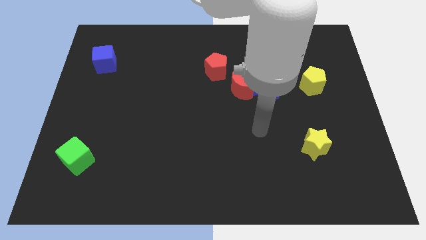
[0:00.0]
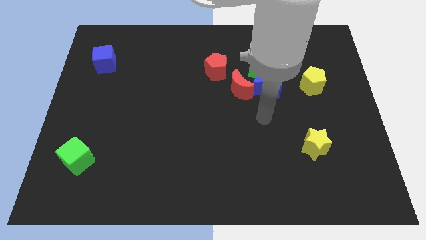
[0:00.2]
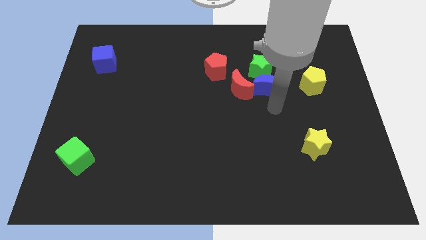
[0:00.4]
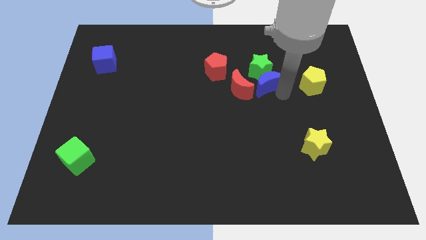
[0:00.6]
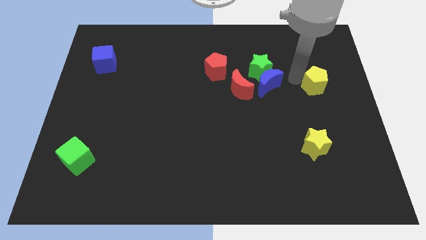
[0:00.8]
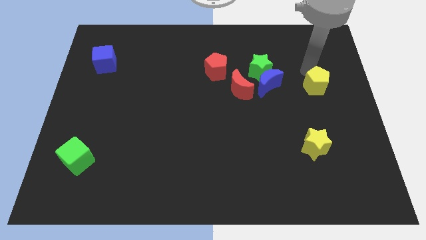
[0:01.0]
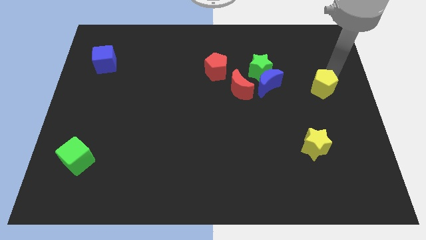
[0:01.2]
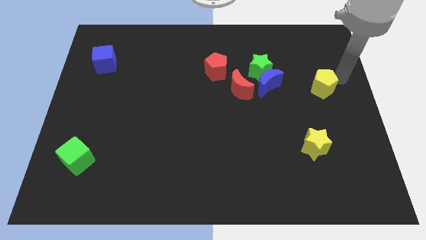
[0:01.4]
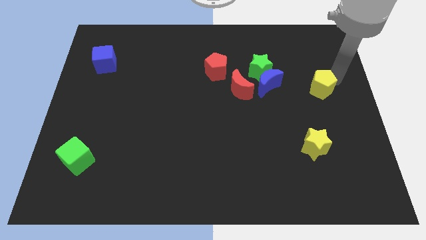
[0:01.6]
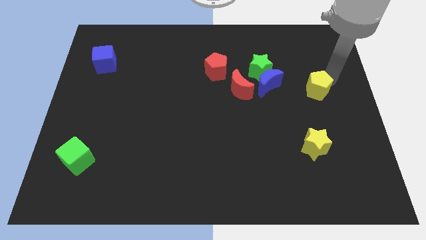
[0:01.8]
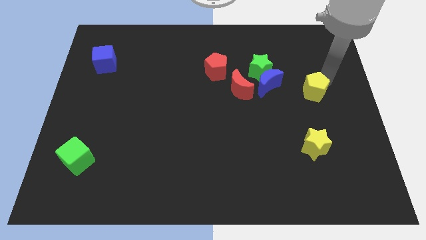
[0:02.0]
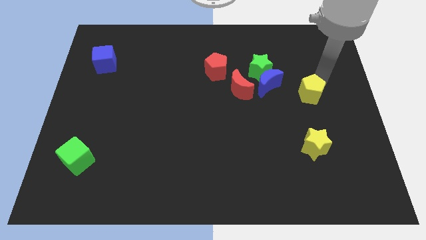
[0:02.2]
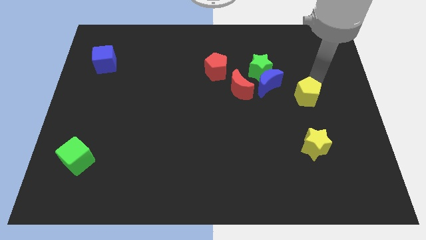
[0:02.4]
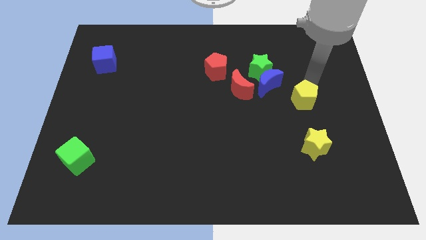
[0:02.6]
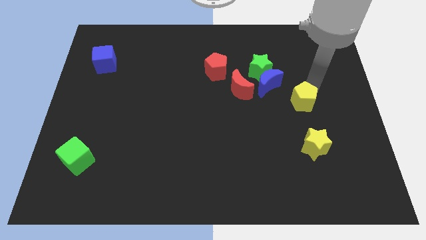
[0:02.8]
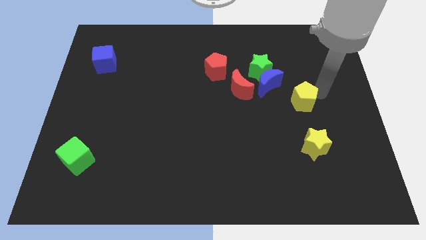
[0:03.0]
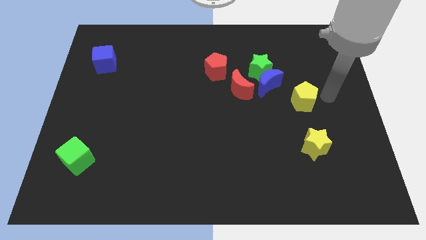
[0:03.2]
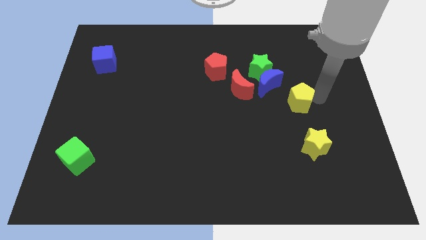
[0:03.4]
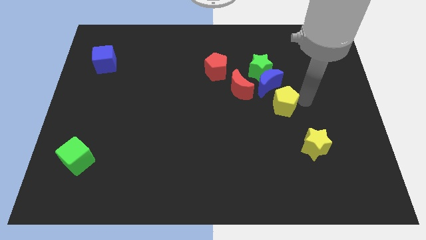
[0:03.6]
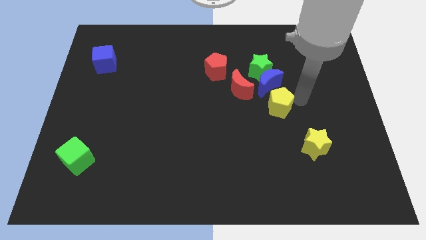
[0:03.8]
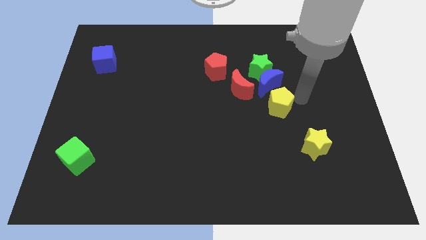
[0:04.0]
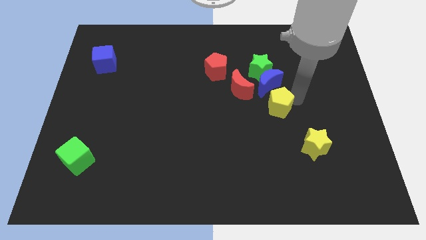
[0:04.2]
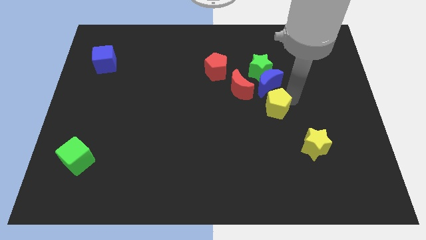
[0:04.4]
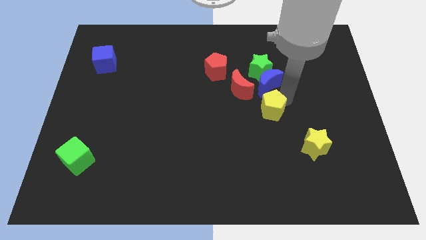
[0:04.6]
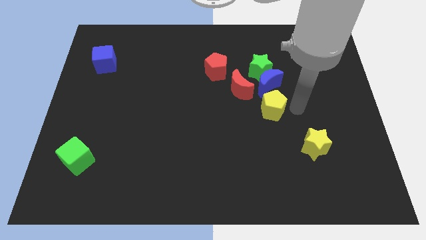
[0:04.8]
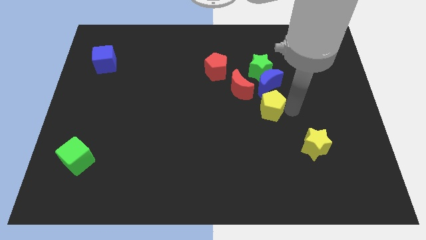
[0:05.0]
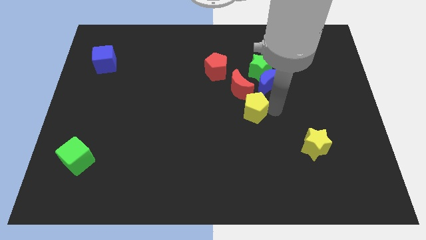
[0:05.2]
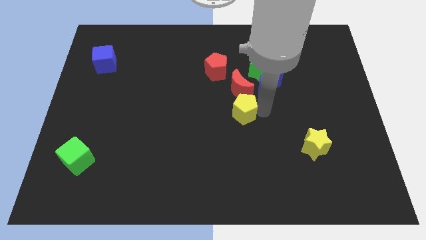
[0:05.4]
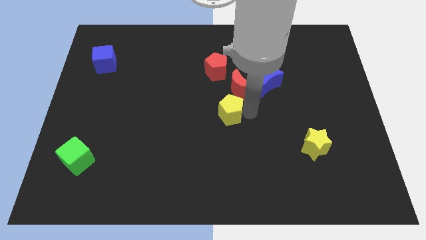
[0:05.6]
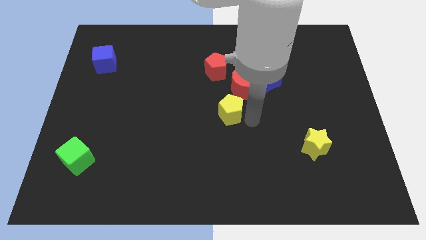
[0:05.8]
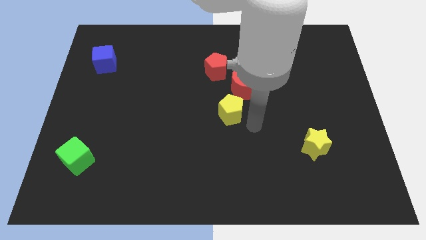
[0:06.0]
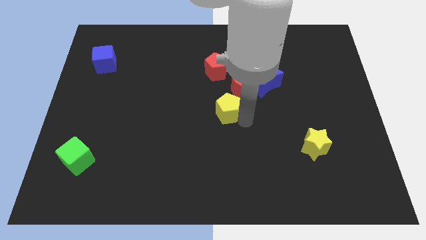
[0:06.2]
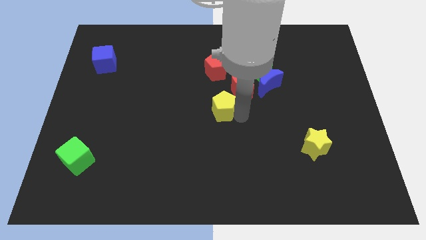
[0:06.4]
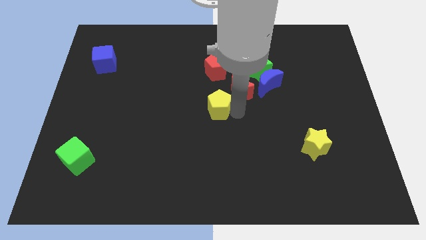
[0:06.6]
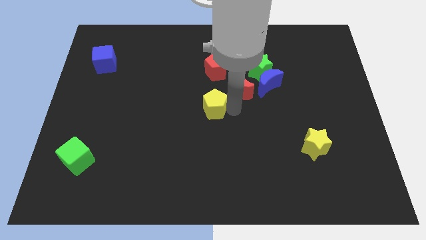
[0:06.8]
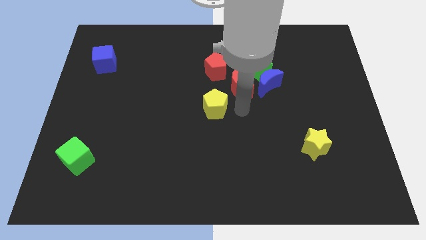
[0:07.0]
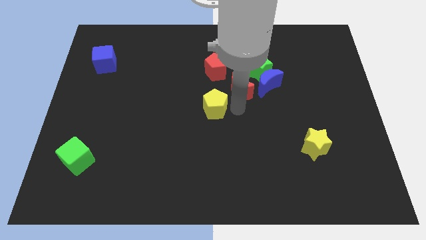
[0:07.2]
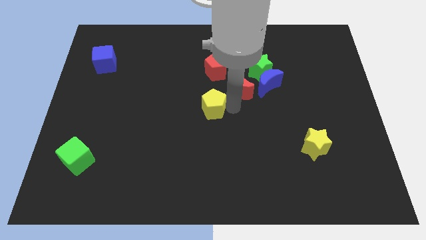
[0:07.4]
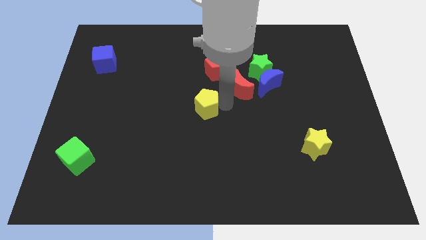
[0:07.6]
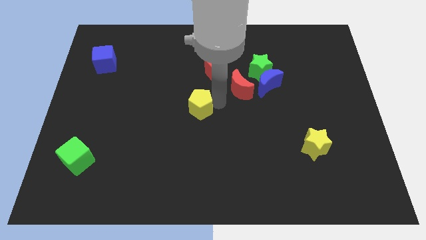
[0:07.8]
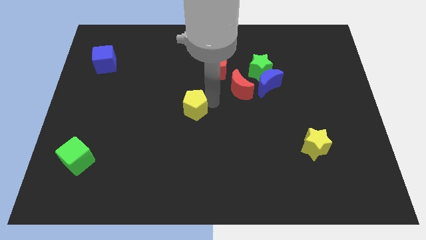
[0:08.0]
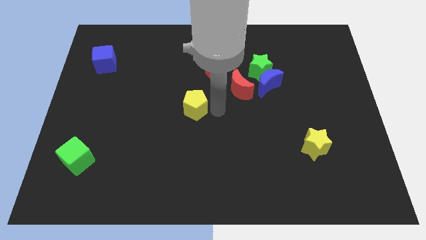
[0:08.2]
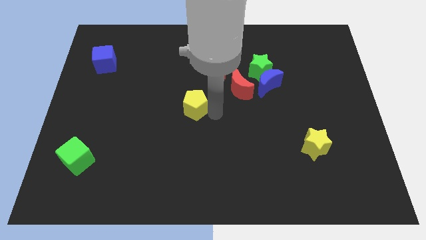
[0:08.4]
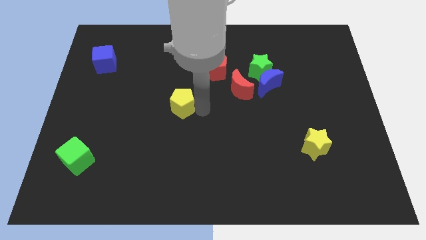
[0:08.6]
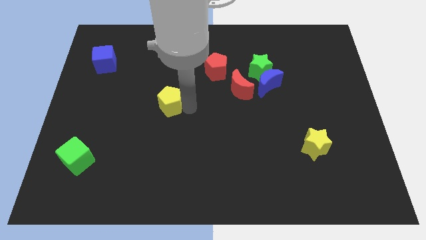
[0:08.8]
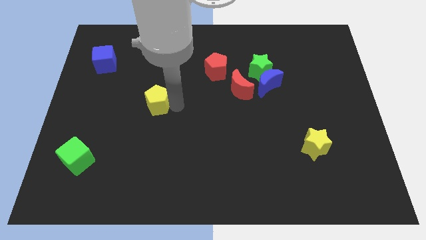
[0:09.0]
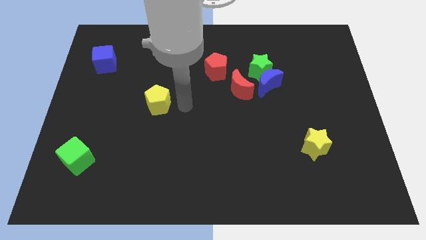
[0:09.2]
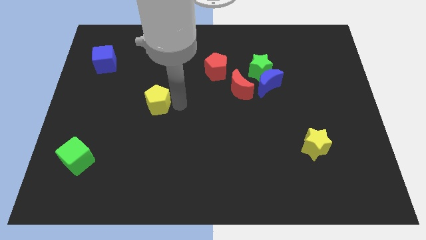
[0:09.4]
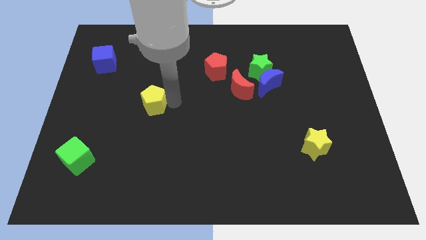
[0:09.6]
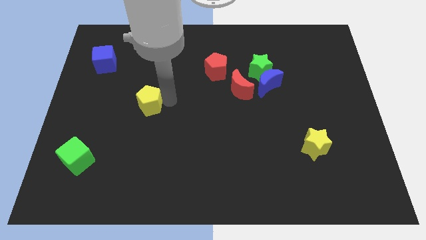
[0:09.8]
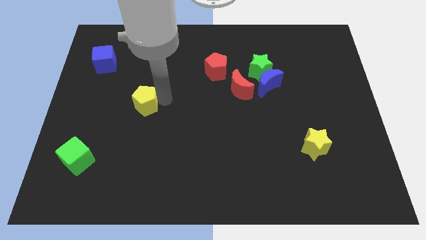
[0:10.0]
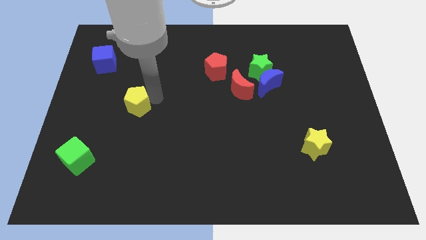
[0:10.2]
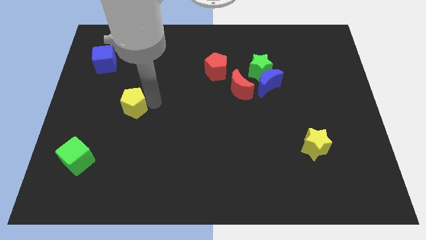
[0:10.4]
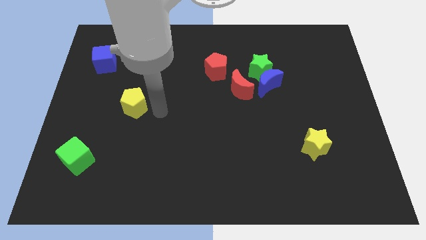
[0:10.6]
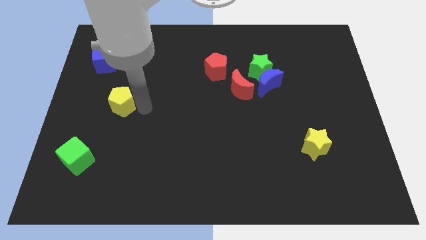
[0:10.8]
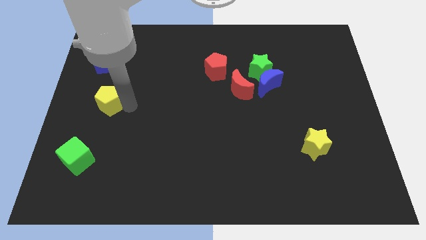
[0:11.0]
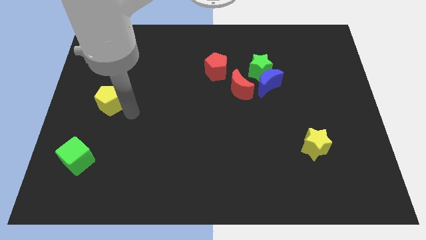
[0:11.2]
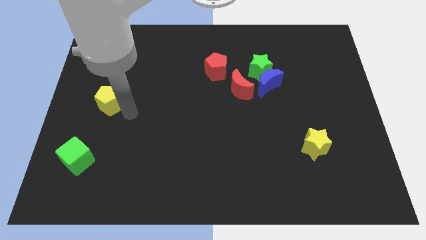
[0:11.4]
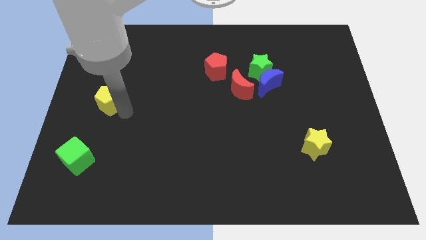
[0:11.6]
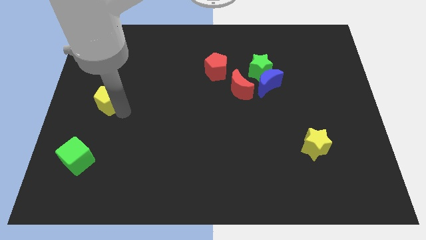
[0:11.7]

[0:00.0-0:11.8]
move the yellow pentagon to the center left

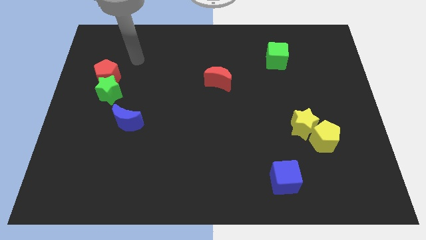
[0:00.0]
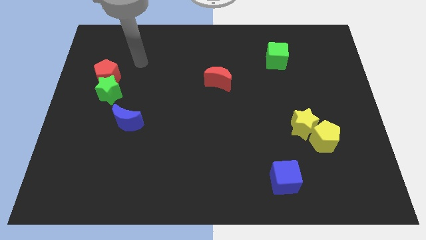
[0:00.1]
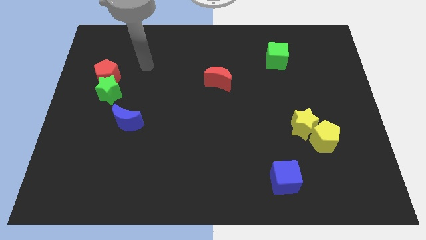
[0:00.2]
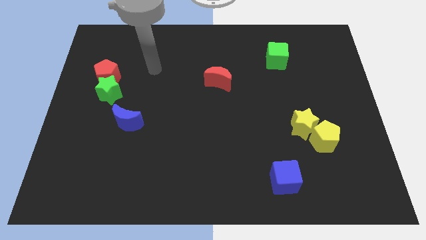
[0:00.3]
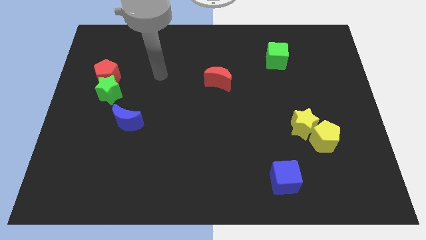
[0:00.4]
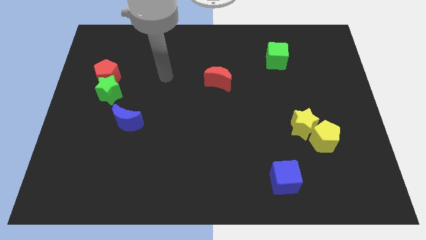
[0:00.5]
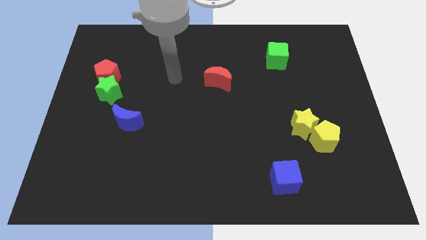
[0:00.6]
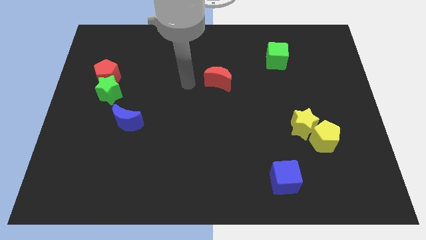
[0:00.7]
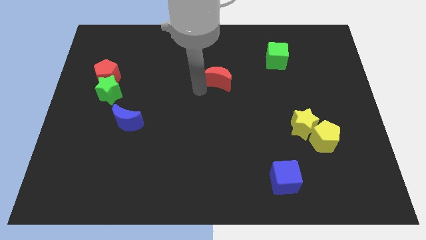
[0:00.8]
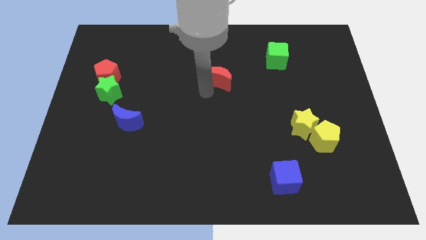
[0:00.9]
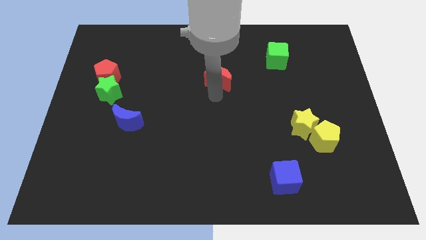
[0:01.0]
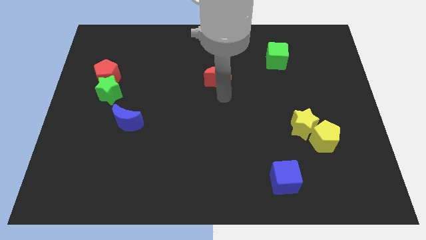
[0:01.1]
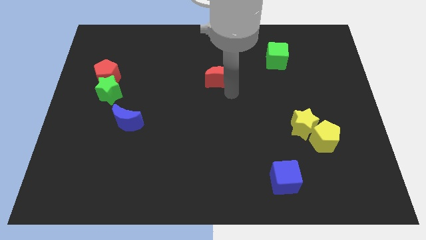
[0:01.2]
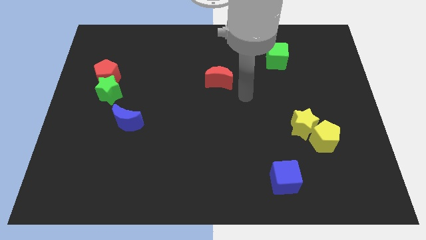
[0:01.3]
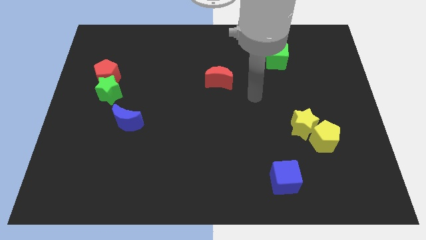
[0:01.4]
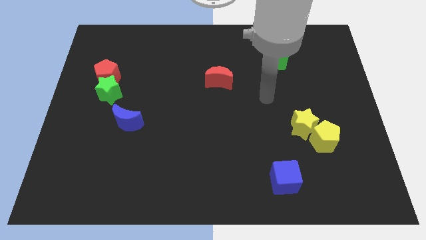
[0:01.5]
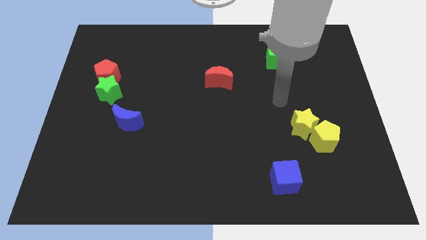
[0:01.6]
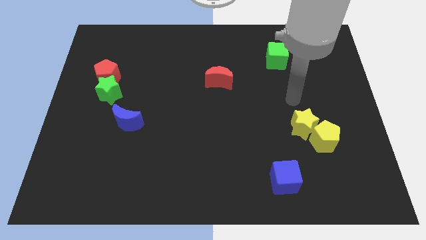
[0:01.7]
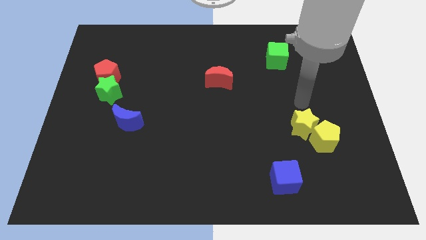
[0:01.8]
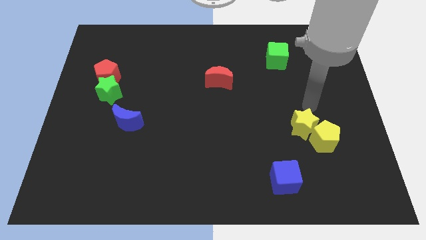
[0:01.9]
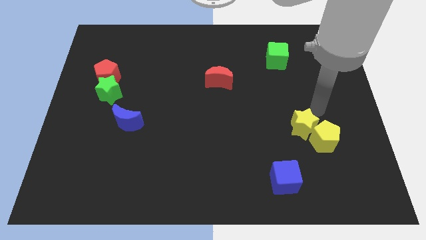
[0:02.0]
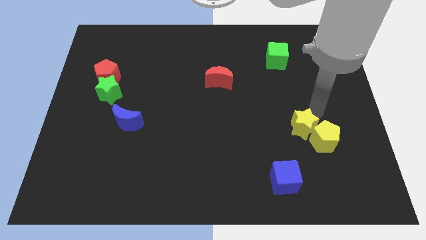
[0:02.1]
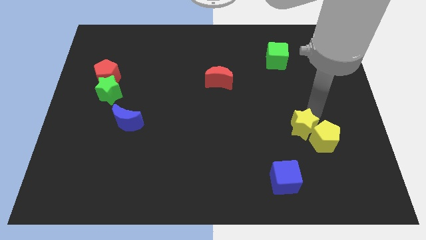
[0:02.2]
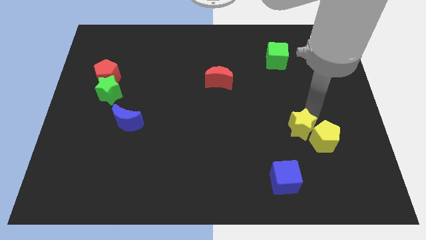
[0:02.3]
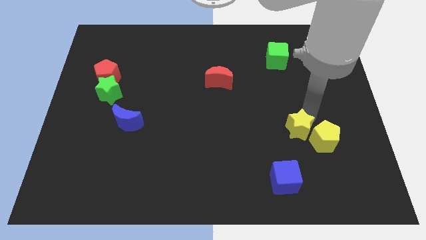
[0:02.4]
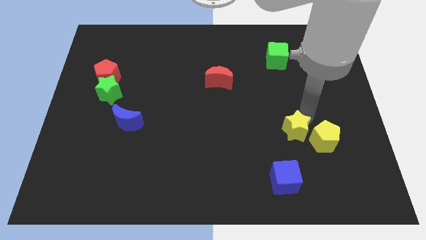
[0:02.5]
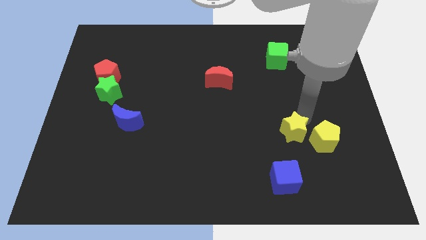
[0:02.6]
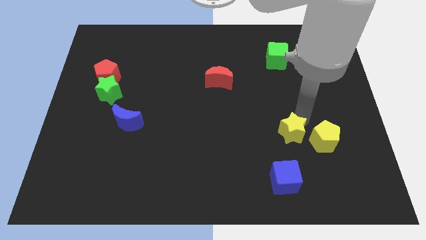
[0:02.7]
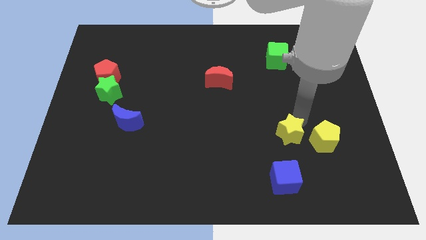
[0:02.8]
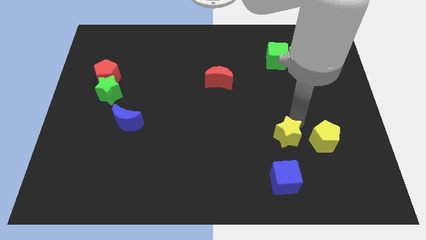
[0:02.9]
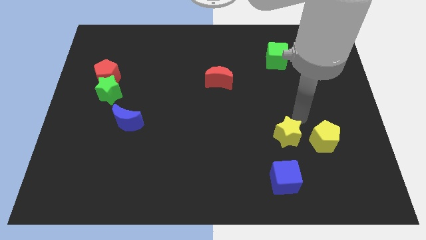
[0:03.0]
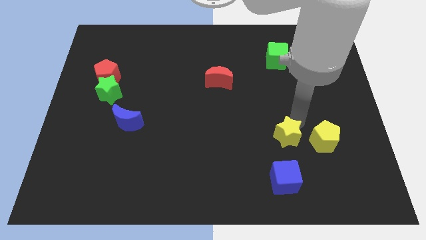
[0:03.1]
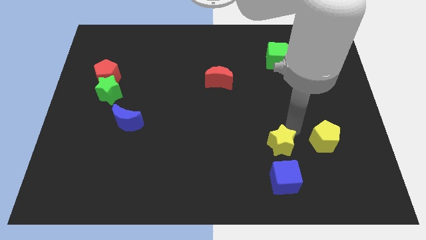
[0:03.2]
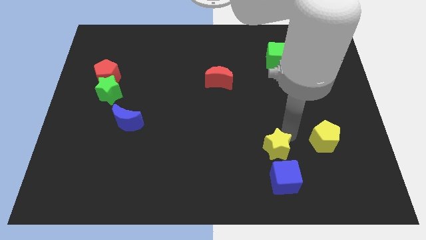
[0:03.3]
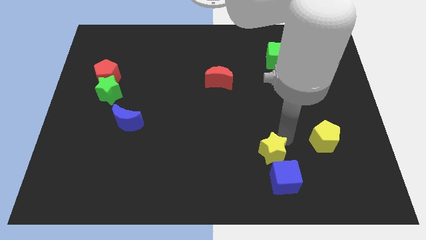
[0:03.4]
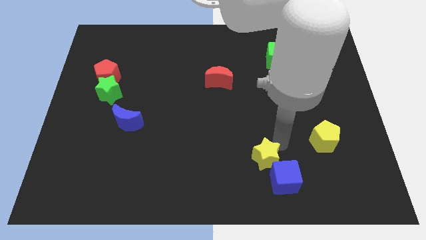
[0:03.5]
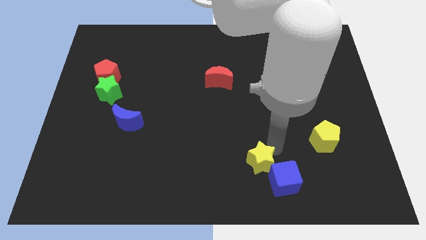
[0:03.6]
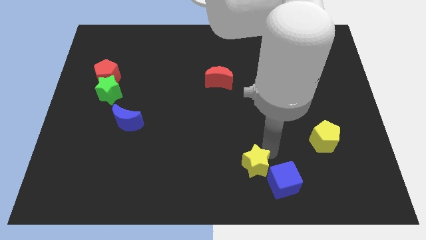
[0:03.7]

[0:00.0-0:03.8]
move the yellow star to the bottom
